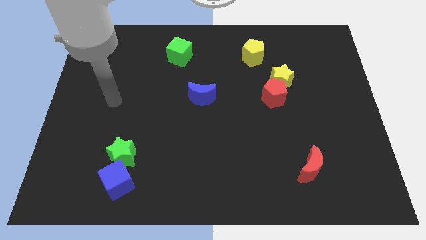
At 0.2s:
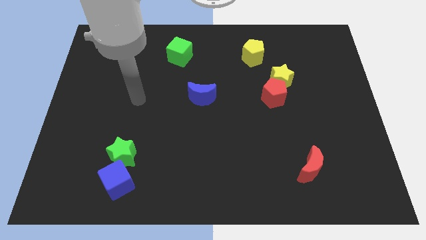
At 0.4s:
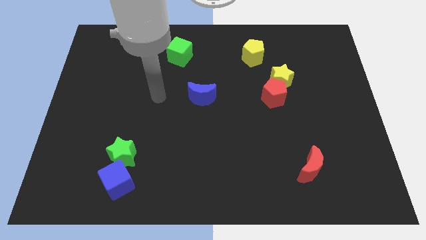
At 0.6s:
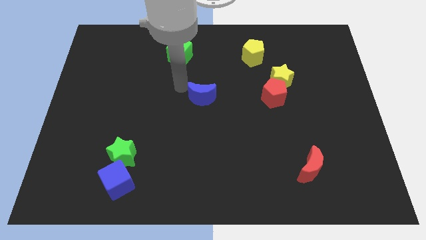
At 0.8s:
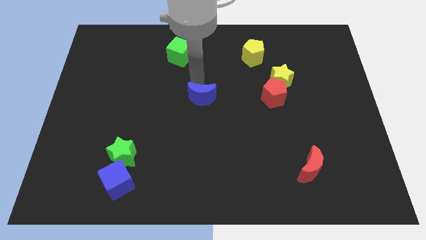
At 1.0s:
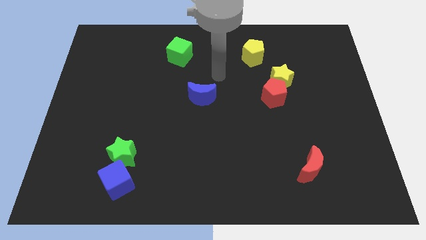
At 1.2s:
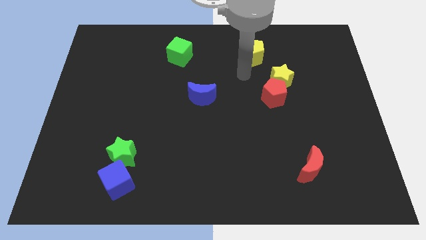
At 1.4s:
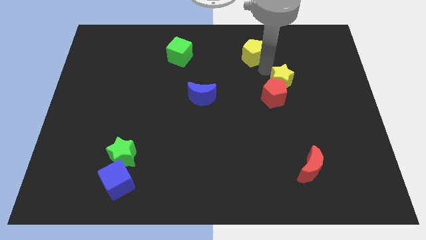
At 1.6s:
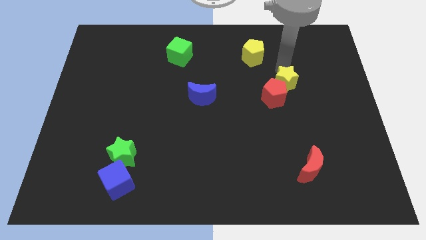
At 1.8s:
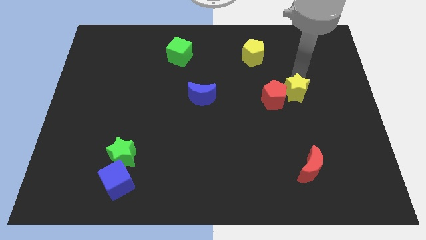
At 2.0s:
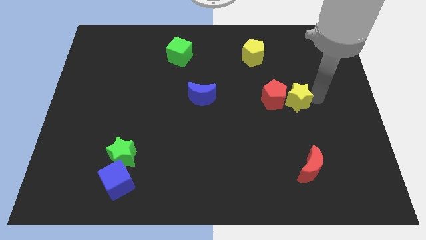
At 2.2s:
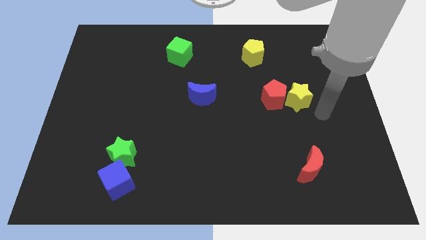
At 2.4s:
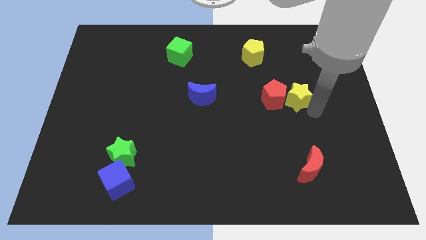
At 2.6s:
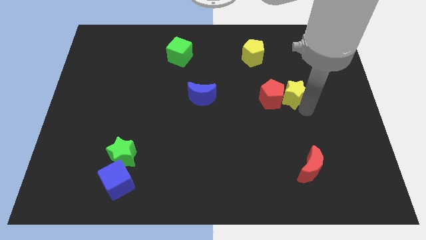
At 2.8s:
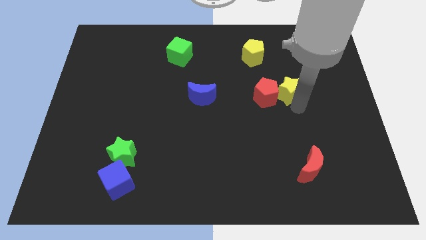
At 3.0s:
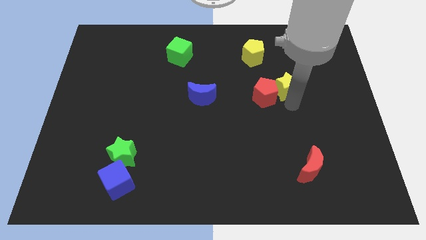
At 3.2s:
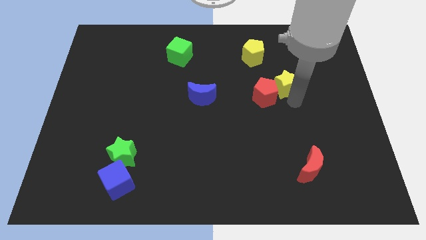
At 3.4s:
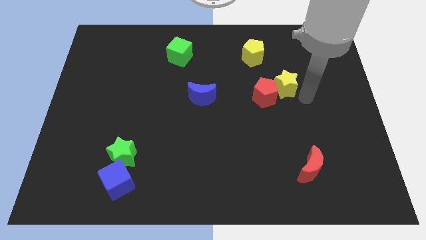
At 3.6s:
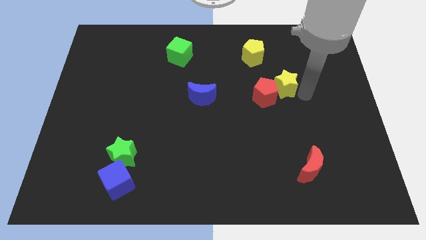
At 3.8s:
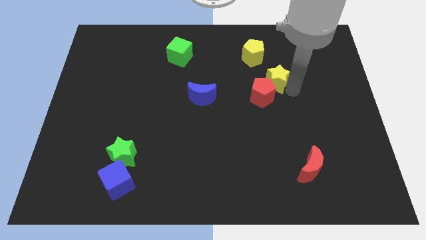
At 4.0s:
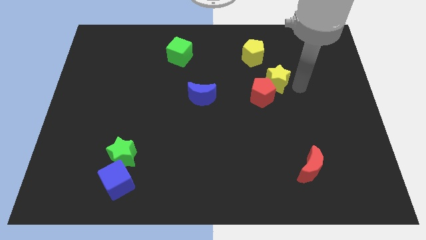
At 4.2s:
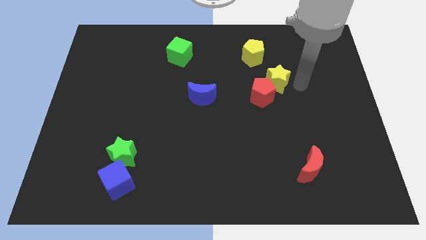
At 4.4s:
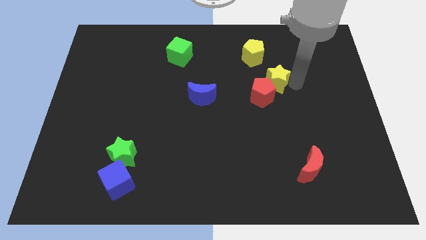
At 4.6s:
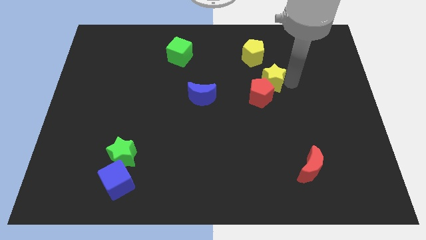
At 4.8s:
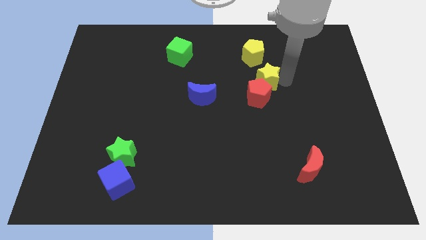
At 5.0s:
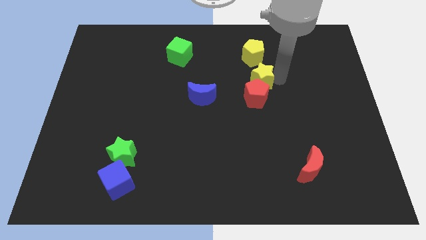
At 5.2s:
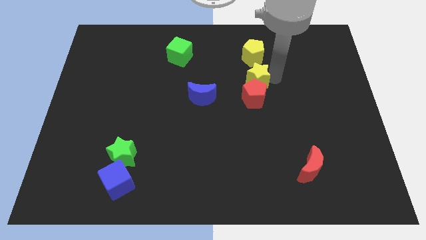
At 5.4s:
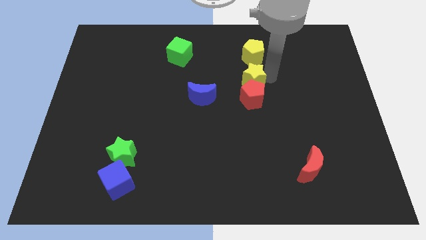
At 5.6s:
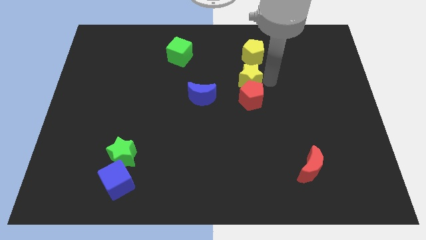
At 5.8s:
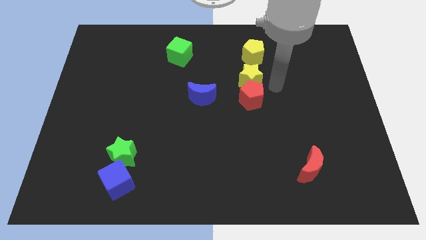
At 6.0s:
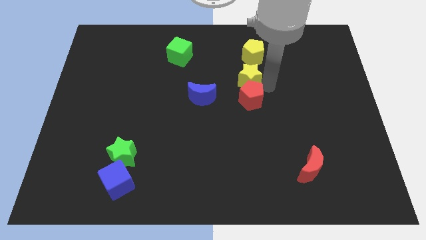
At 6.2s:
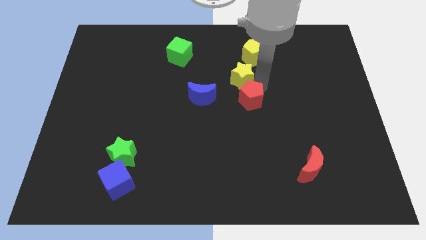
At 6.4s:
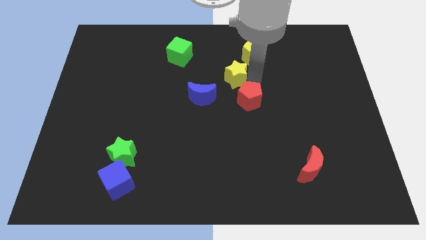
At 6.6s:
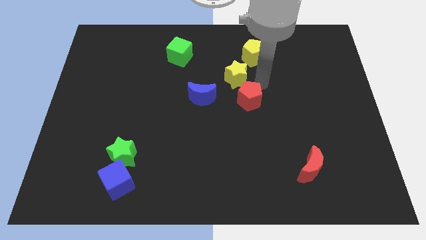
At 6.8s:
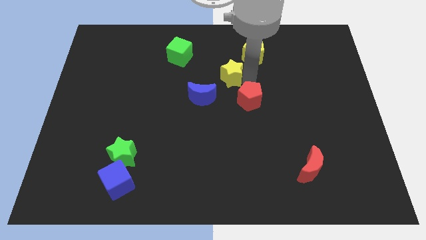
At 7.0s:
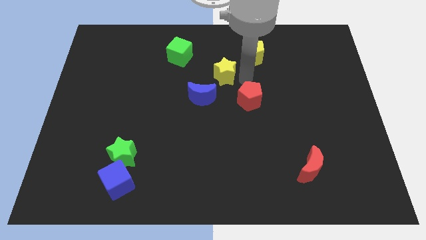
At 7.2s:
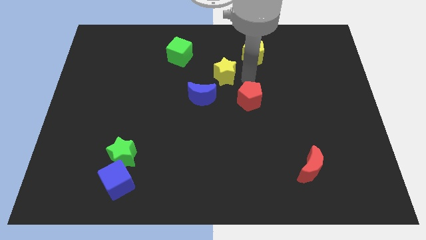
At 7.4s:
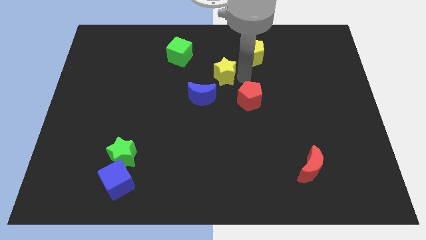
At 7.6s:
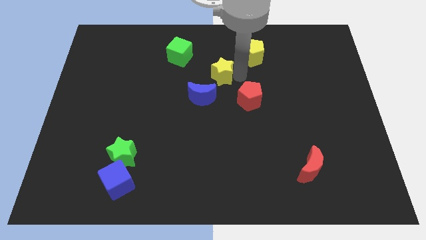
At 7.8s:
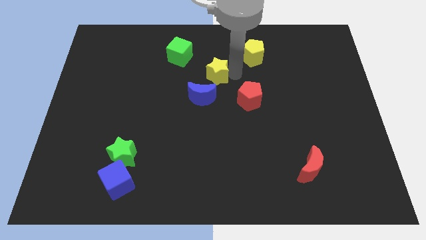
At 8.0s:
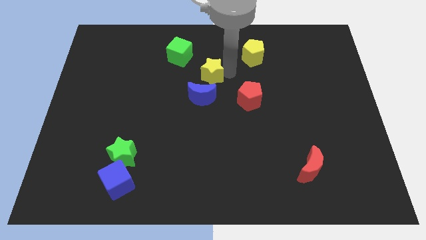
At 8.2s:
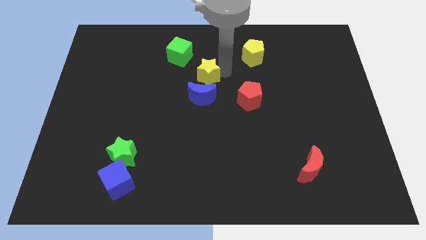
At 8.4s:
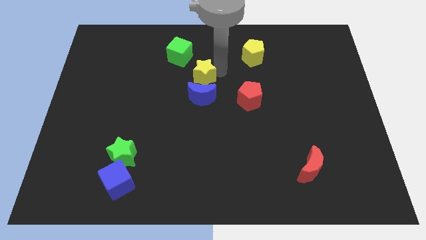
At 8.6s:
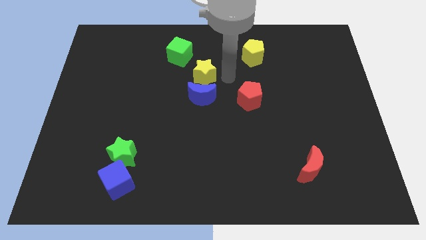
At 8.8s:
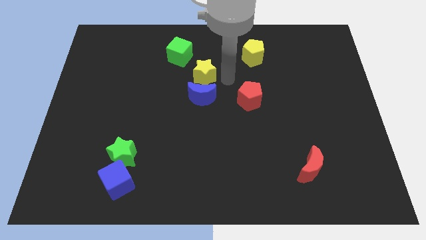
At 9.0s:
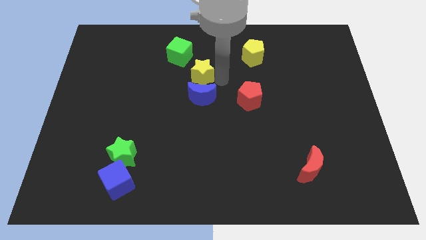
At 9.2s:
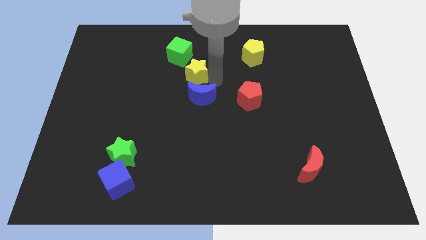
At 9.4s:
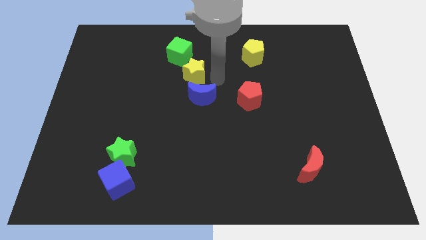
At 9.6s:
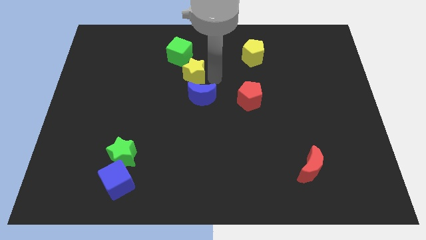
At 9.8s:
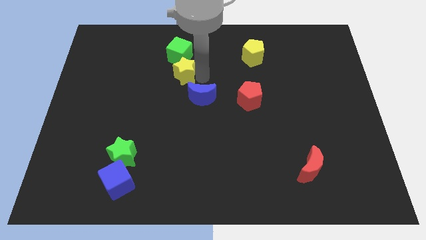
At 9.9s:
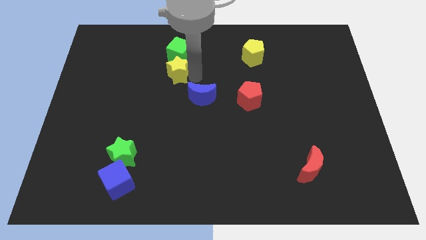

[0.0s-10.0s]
slide the yellow star to the bottom left side of the green cube

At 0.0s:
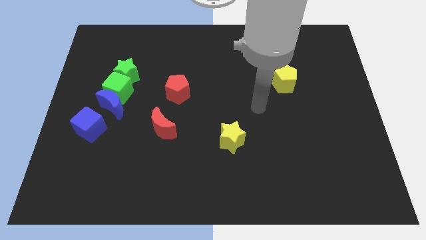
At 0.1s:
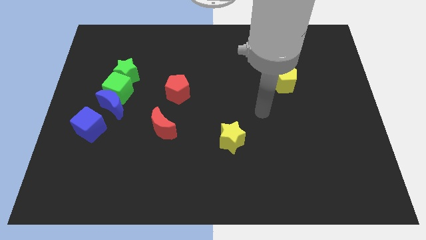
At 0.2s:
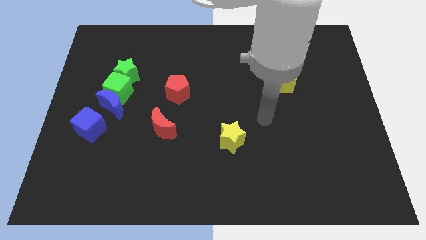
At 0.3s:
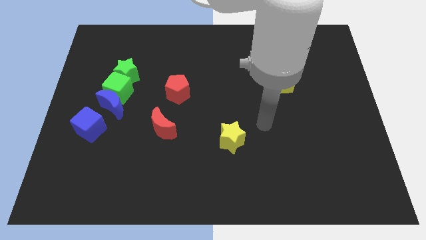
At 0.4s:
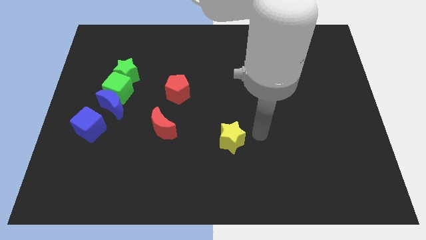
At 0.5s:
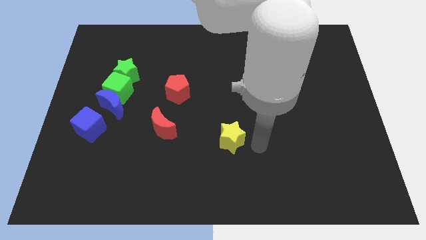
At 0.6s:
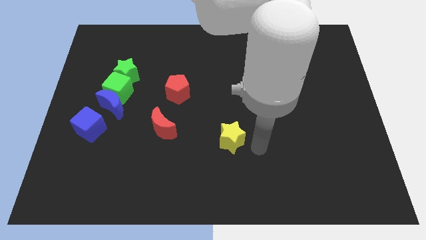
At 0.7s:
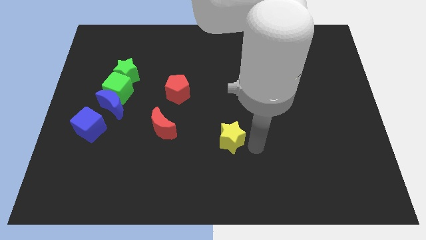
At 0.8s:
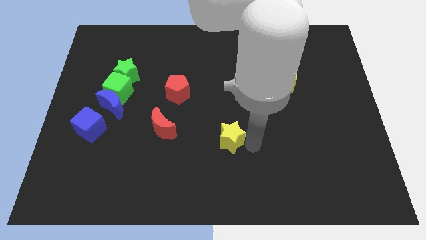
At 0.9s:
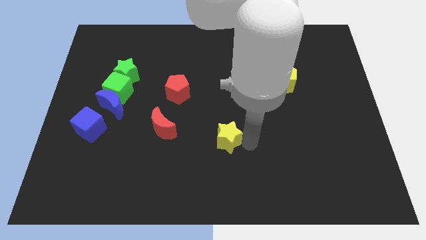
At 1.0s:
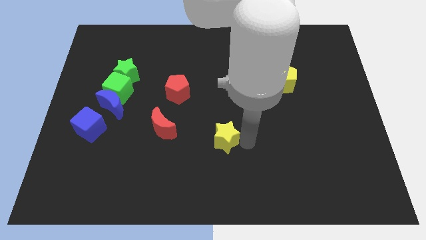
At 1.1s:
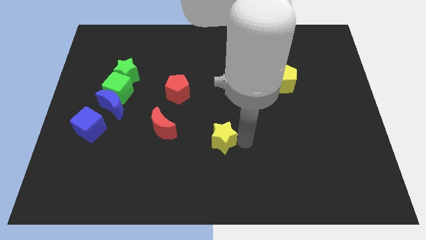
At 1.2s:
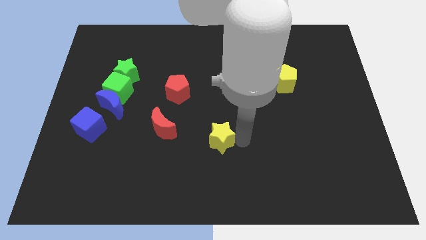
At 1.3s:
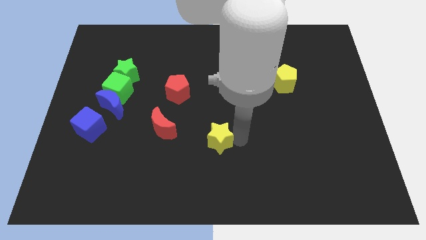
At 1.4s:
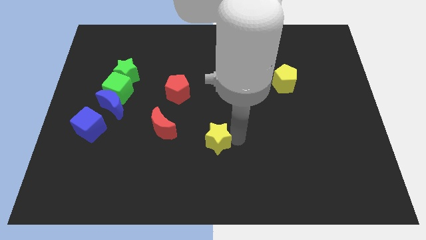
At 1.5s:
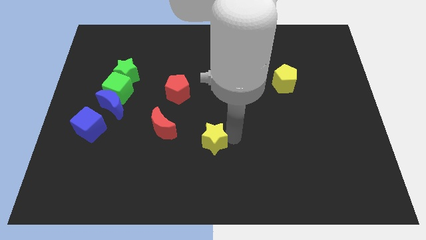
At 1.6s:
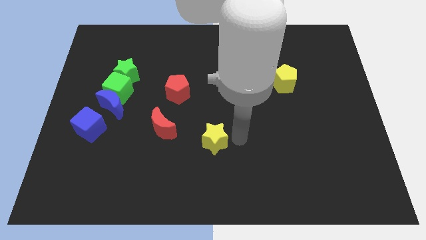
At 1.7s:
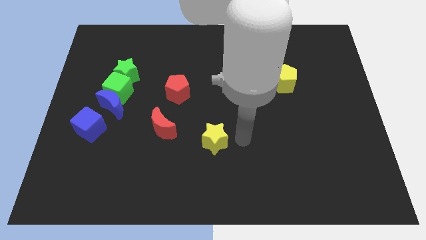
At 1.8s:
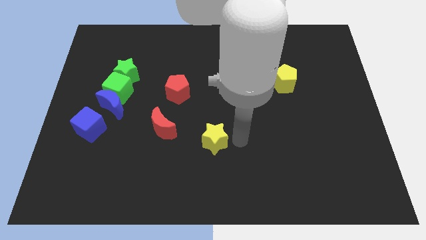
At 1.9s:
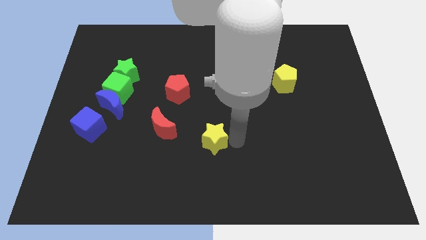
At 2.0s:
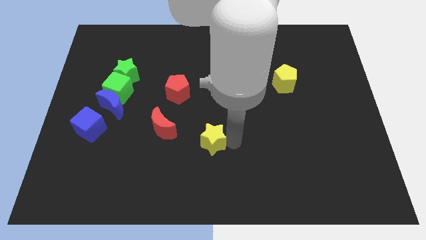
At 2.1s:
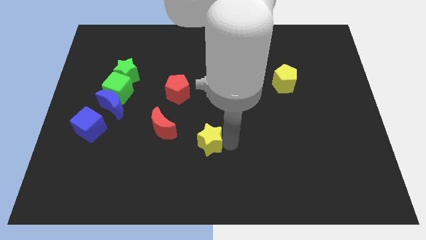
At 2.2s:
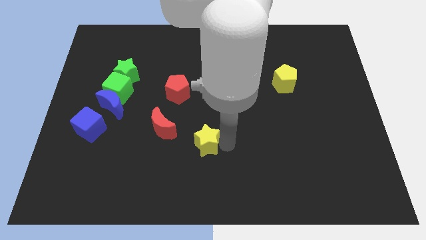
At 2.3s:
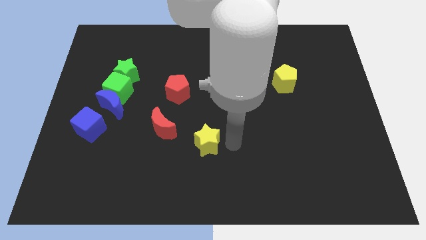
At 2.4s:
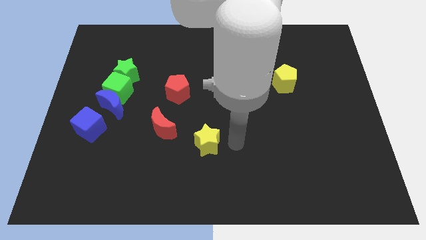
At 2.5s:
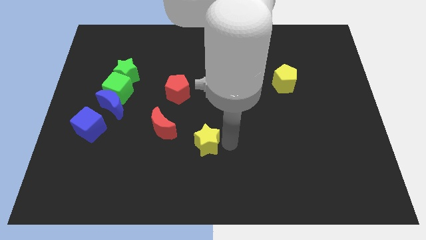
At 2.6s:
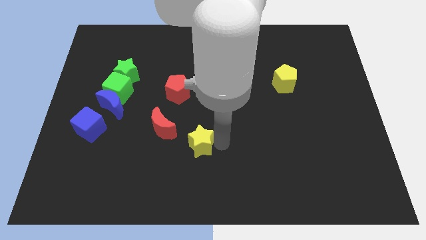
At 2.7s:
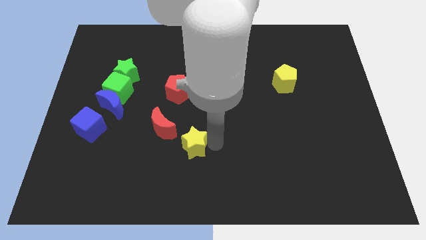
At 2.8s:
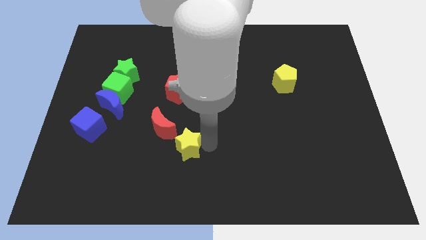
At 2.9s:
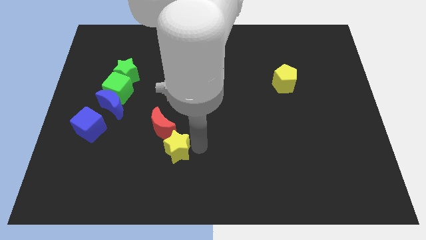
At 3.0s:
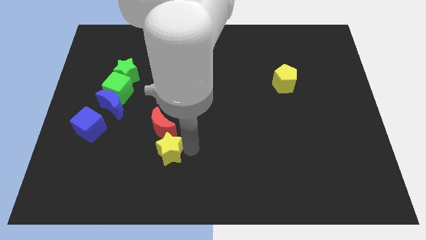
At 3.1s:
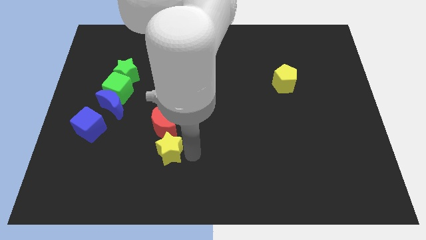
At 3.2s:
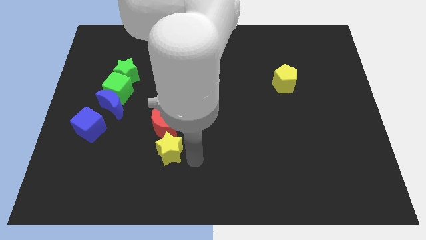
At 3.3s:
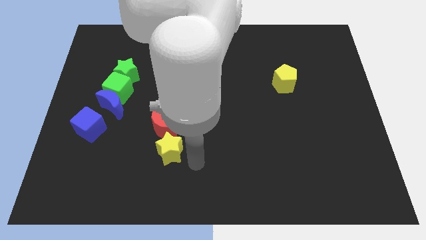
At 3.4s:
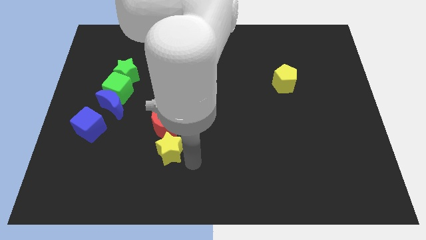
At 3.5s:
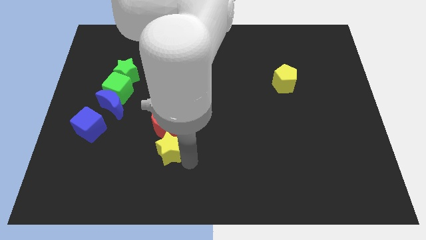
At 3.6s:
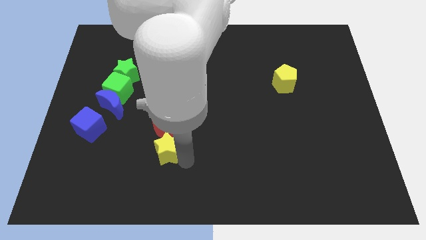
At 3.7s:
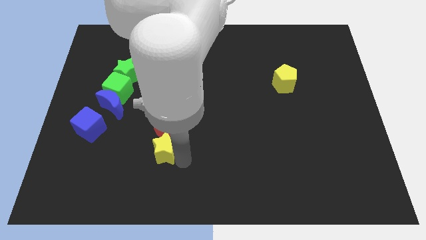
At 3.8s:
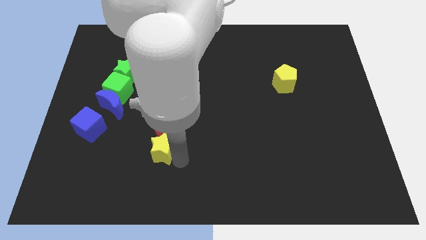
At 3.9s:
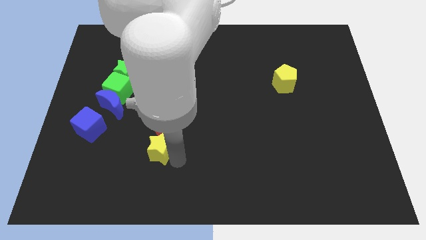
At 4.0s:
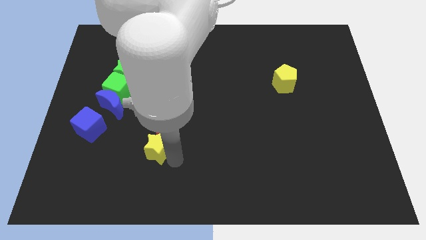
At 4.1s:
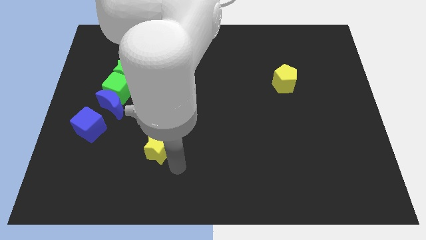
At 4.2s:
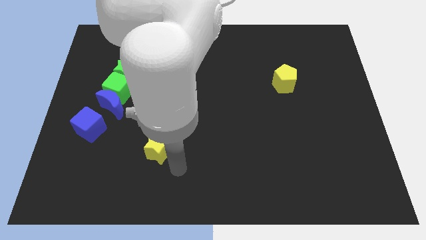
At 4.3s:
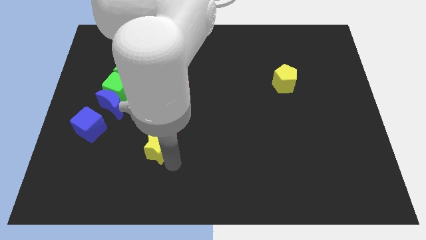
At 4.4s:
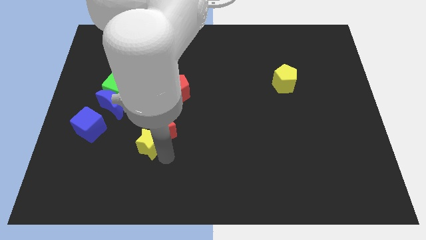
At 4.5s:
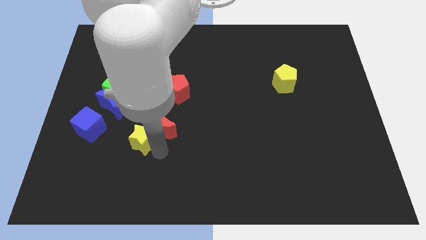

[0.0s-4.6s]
slide the yellow star just right of the blue cube
